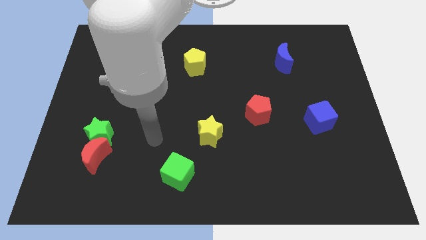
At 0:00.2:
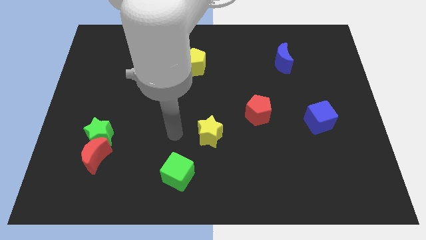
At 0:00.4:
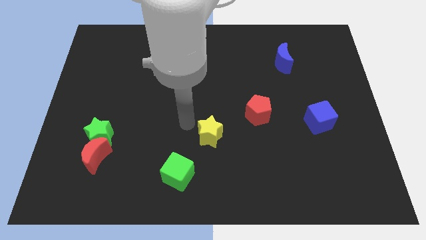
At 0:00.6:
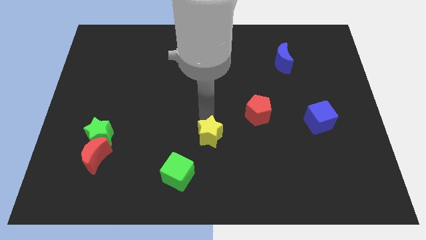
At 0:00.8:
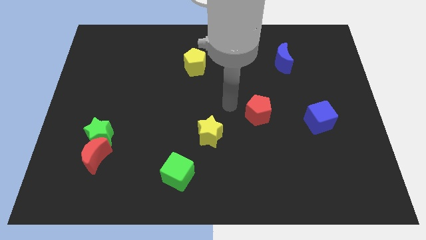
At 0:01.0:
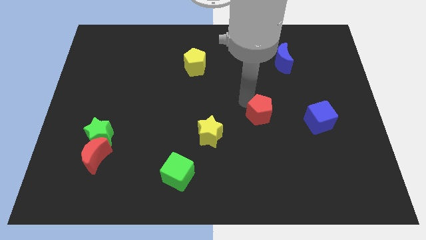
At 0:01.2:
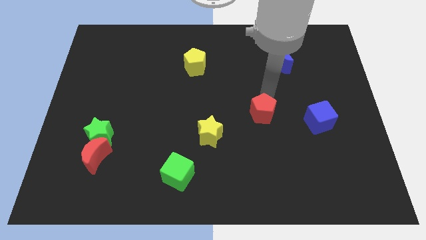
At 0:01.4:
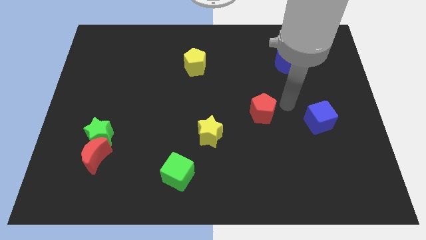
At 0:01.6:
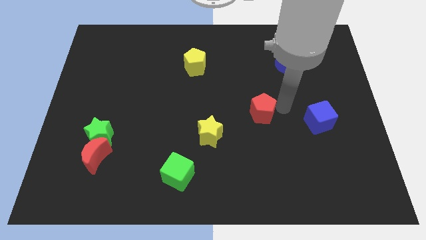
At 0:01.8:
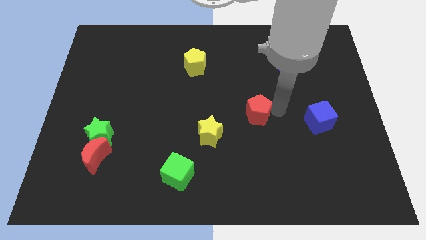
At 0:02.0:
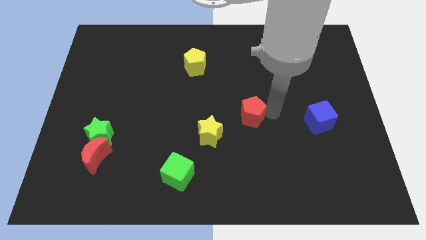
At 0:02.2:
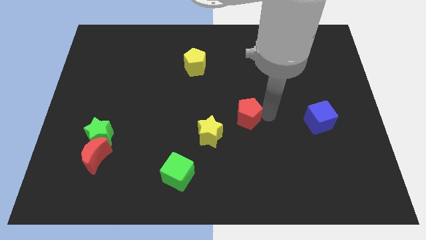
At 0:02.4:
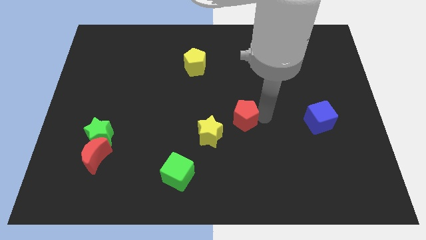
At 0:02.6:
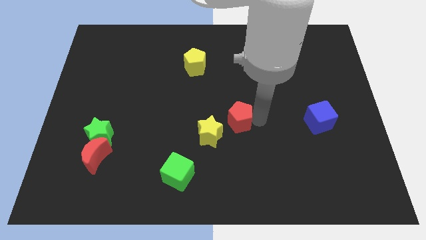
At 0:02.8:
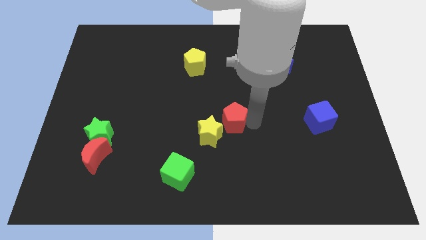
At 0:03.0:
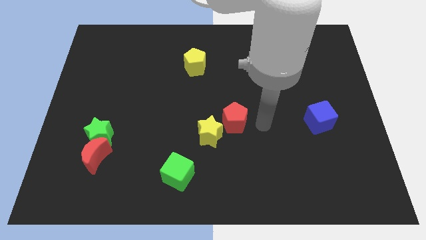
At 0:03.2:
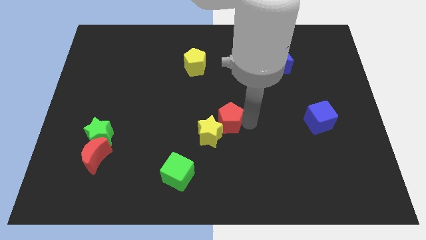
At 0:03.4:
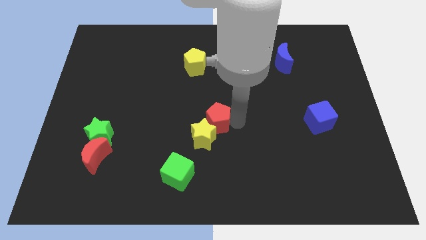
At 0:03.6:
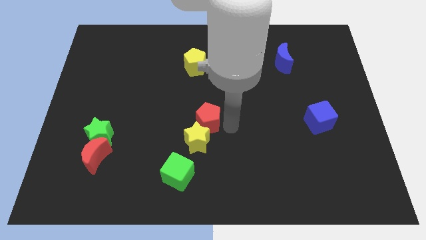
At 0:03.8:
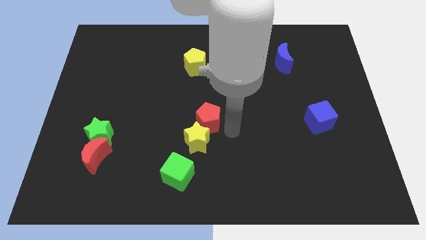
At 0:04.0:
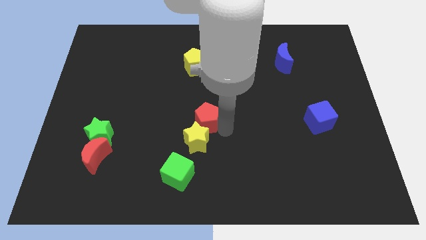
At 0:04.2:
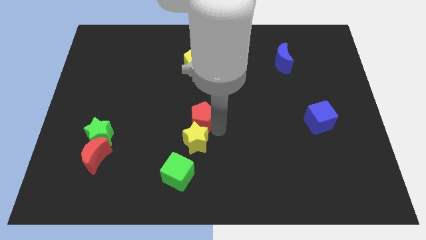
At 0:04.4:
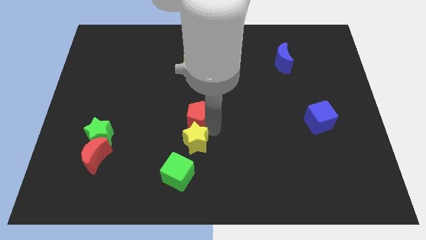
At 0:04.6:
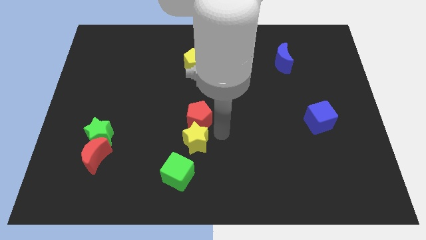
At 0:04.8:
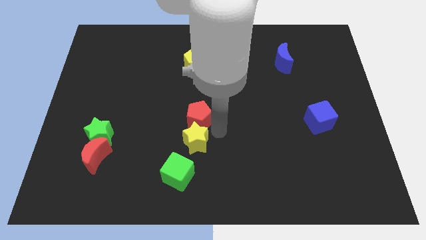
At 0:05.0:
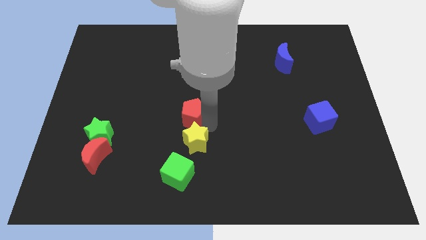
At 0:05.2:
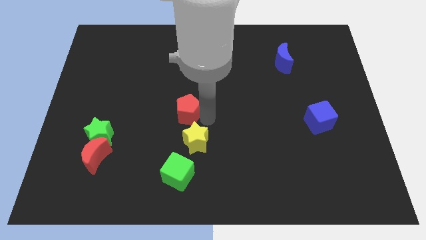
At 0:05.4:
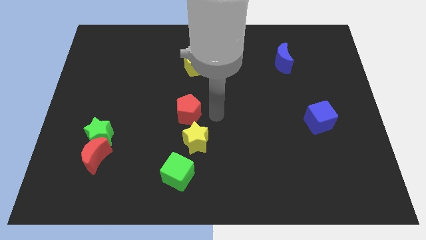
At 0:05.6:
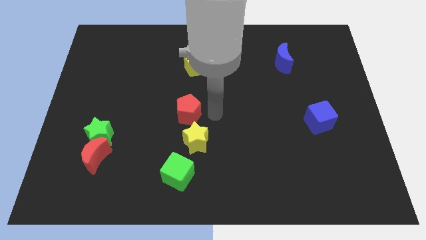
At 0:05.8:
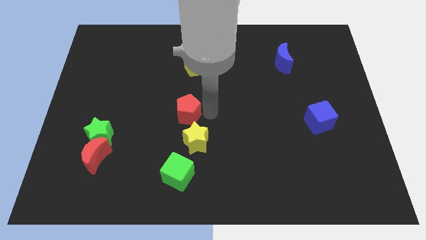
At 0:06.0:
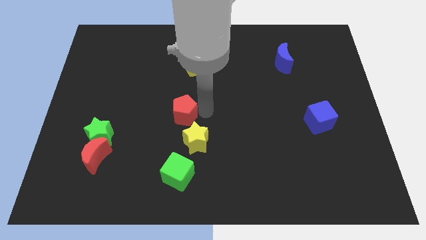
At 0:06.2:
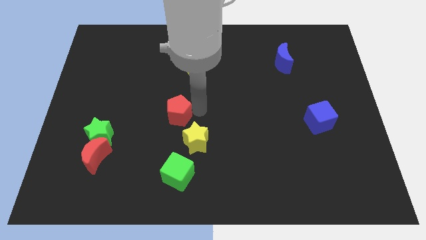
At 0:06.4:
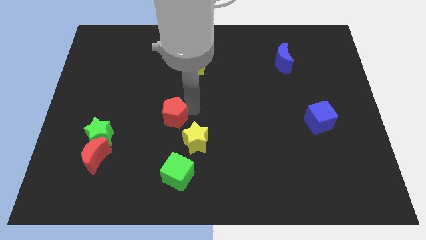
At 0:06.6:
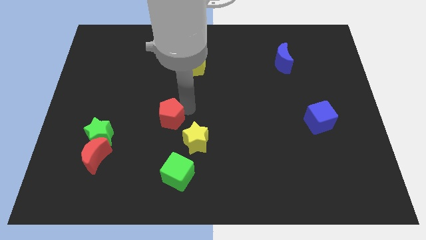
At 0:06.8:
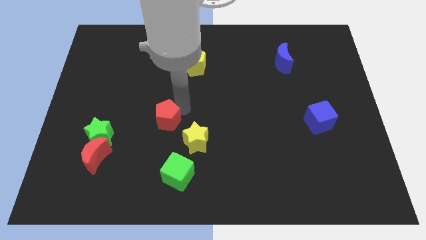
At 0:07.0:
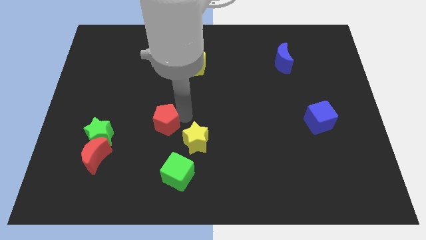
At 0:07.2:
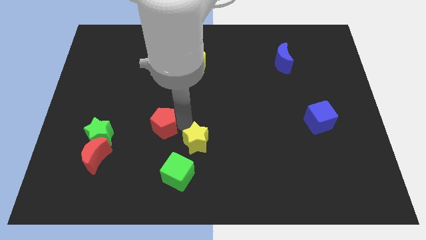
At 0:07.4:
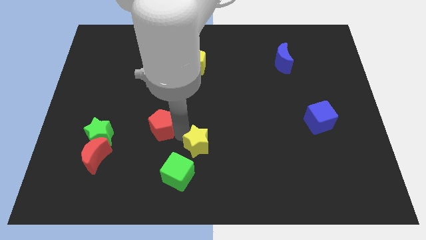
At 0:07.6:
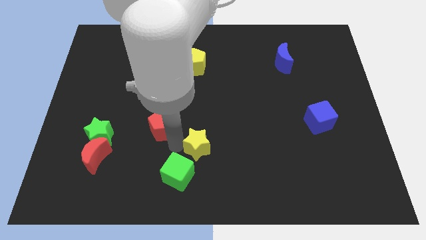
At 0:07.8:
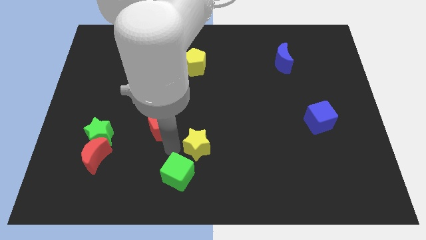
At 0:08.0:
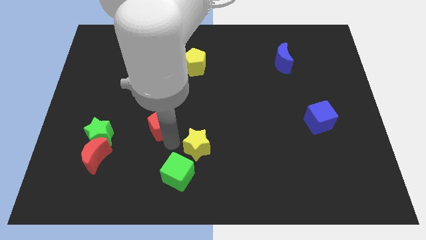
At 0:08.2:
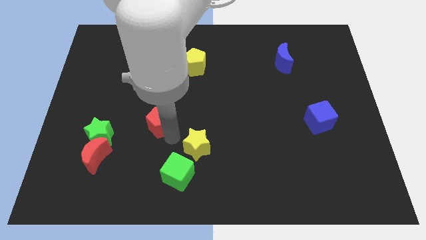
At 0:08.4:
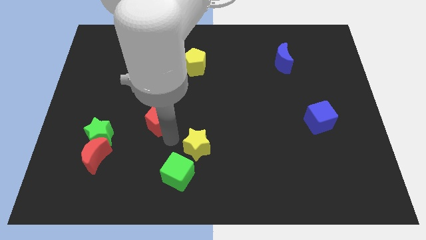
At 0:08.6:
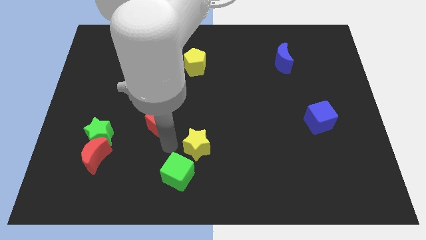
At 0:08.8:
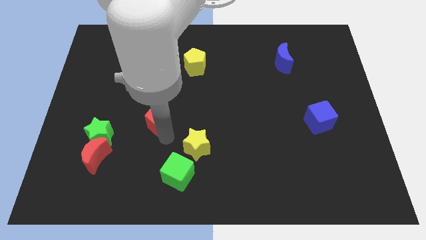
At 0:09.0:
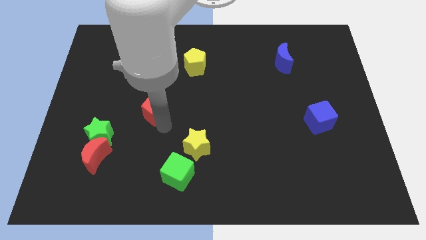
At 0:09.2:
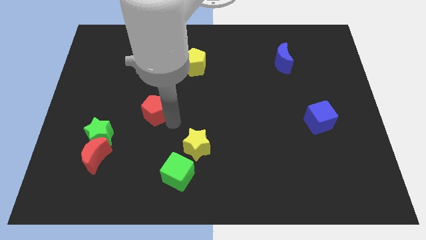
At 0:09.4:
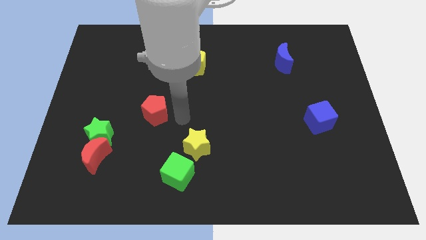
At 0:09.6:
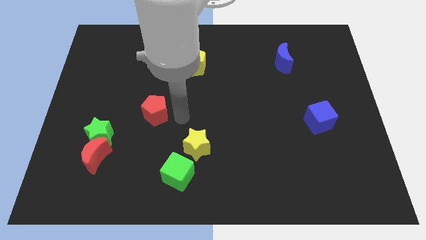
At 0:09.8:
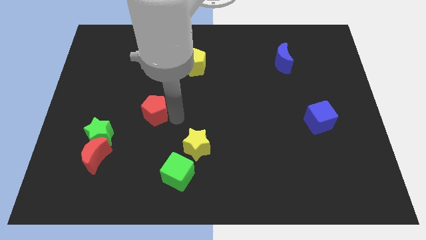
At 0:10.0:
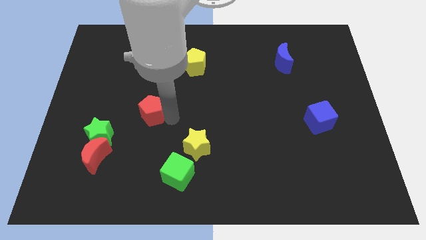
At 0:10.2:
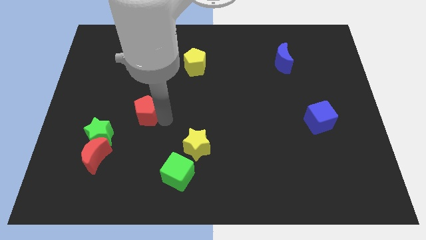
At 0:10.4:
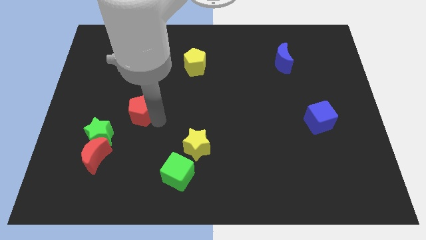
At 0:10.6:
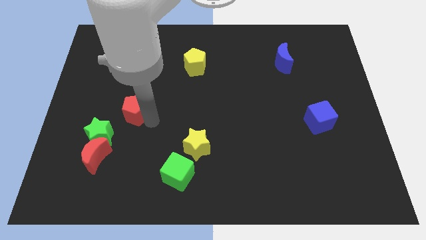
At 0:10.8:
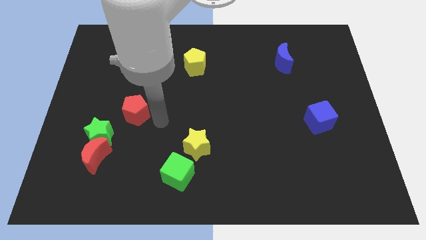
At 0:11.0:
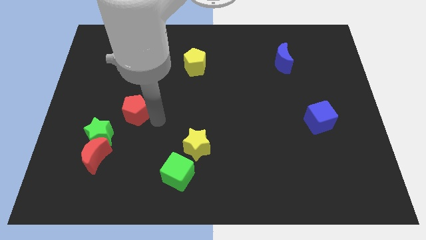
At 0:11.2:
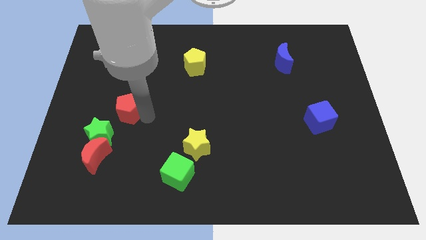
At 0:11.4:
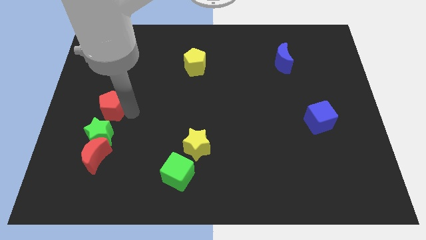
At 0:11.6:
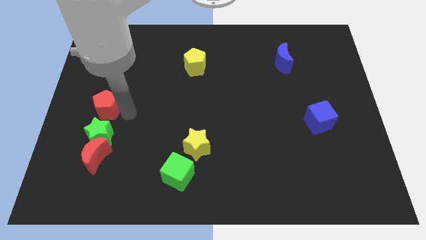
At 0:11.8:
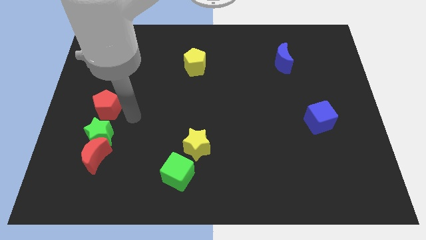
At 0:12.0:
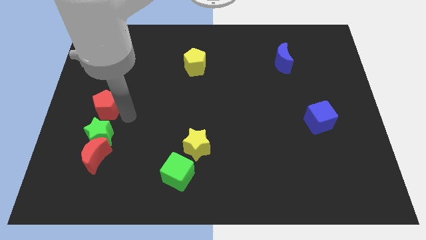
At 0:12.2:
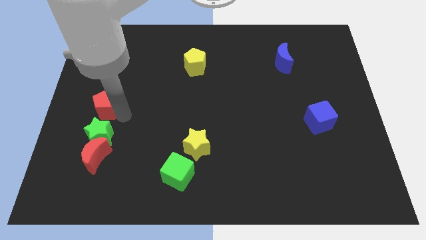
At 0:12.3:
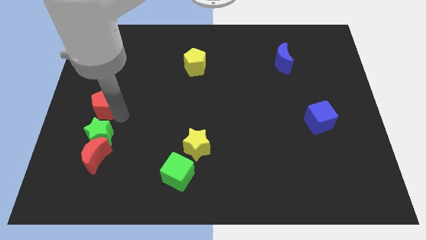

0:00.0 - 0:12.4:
move the red pentagon to the left side
